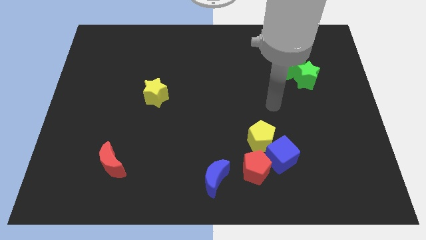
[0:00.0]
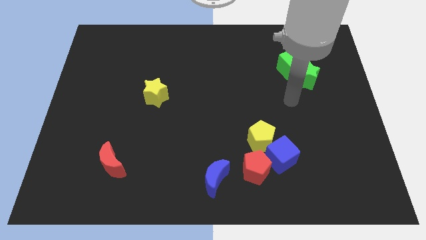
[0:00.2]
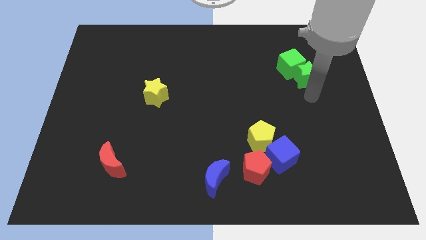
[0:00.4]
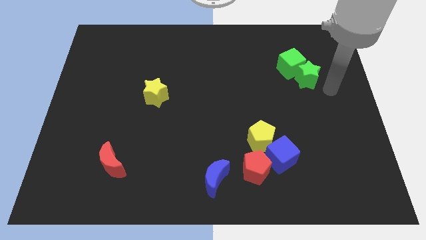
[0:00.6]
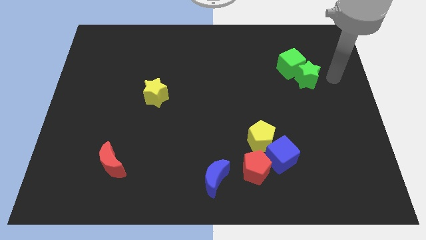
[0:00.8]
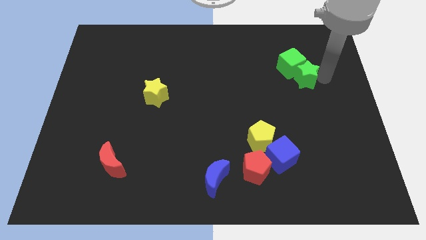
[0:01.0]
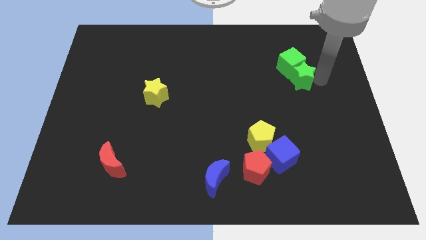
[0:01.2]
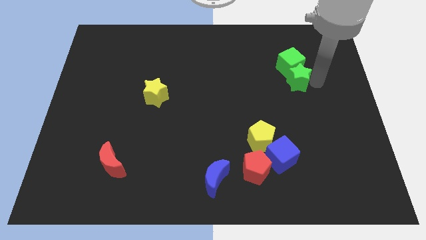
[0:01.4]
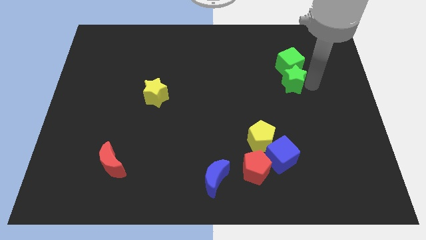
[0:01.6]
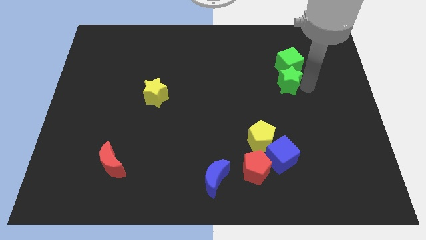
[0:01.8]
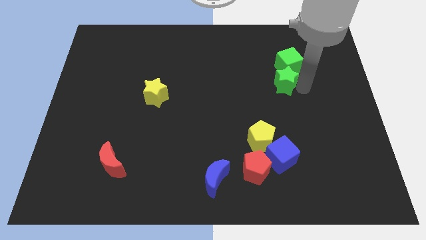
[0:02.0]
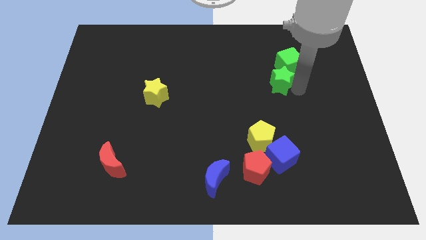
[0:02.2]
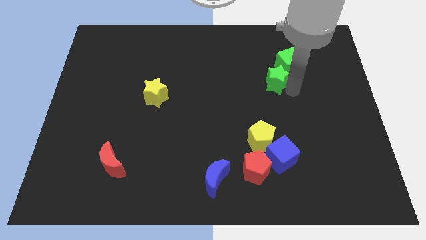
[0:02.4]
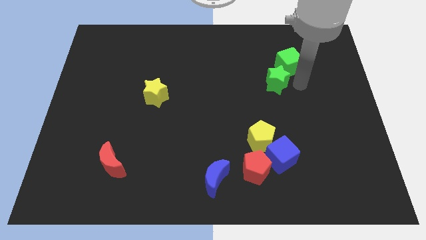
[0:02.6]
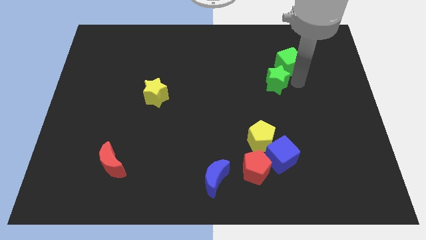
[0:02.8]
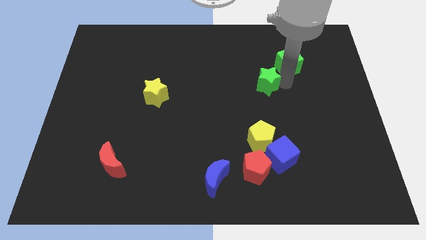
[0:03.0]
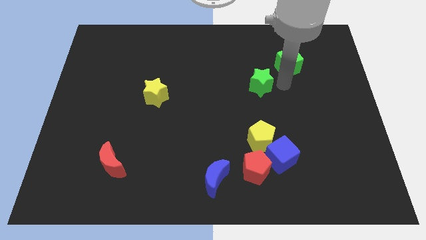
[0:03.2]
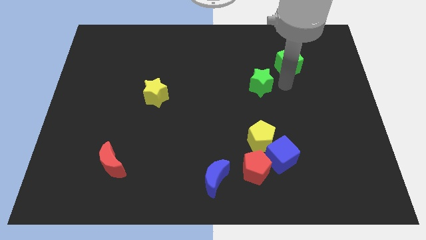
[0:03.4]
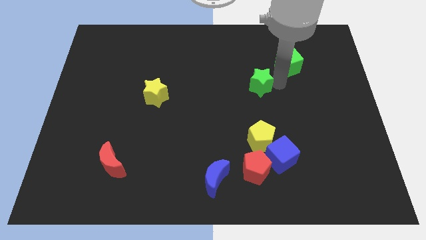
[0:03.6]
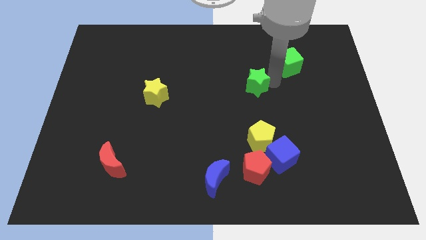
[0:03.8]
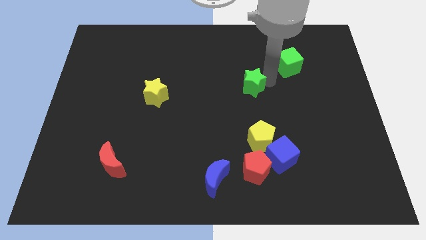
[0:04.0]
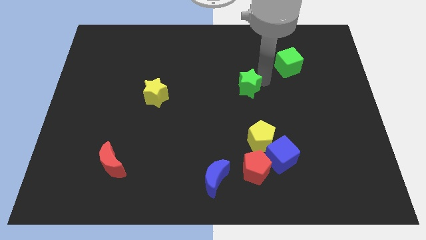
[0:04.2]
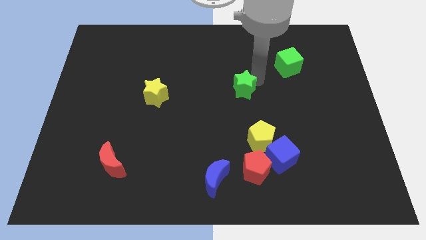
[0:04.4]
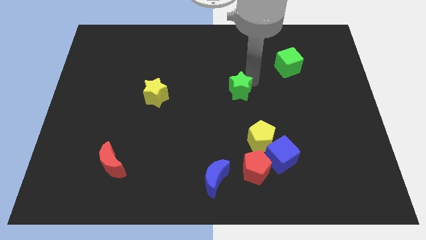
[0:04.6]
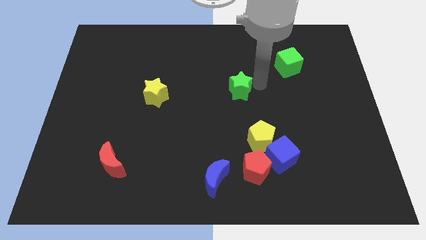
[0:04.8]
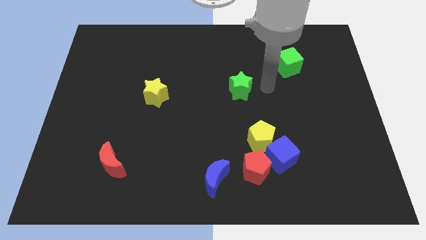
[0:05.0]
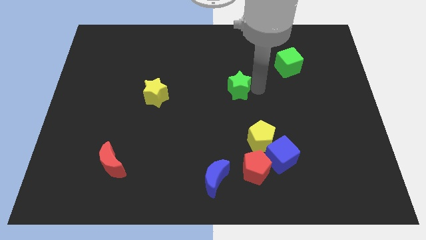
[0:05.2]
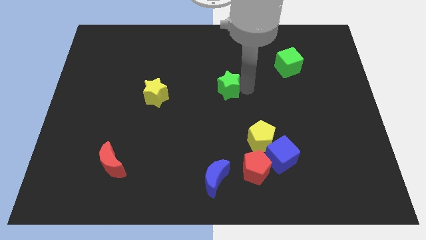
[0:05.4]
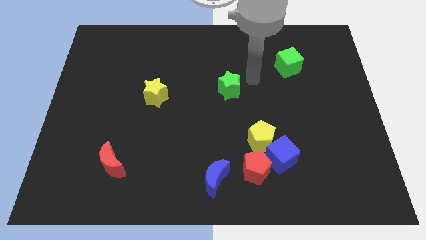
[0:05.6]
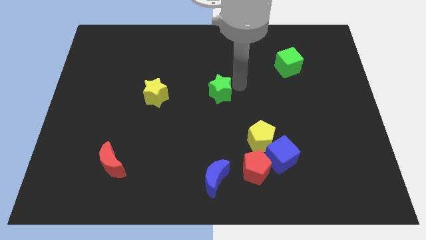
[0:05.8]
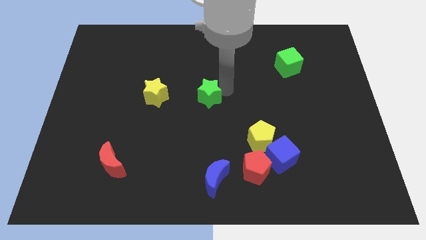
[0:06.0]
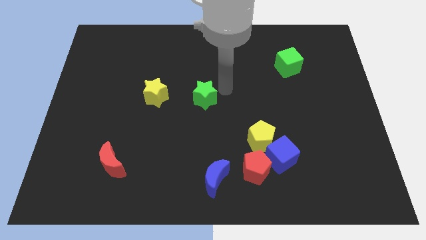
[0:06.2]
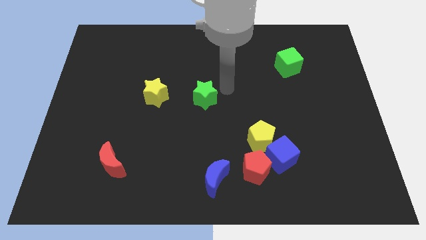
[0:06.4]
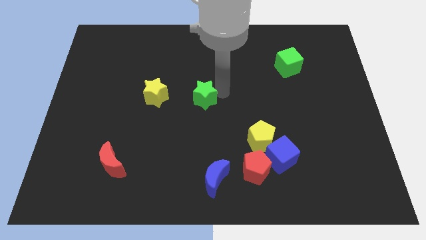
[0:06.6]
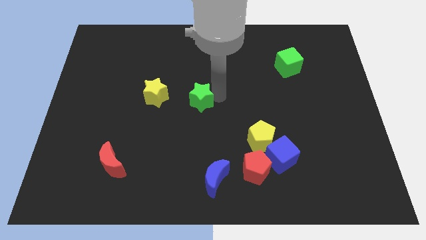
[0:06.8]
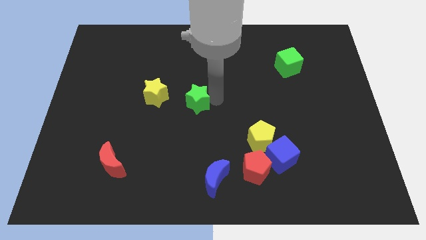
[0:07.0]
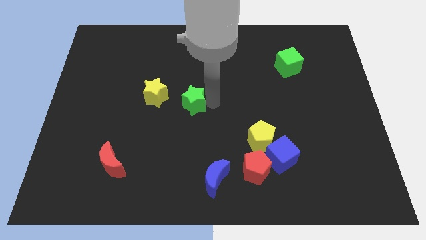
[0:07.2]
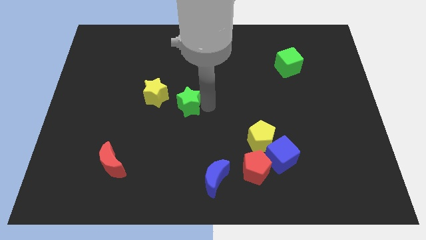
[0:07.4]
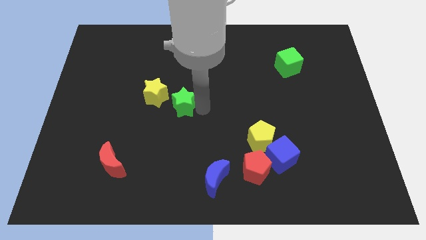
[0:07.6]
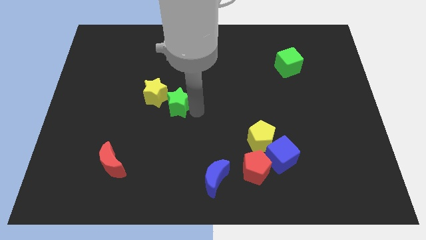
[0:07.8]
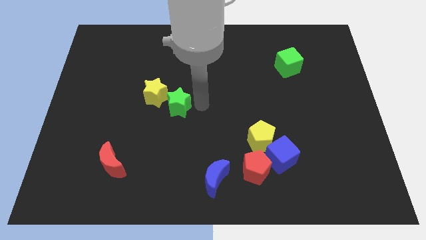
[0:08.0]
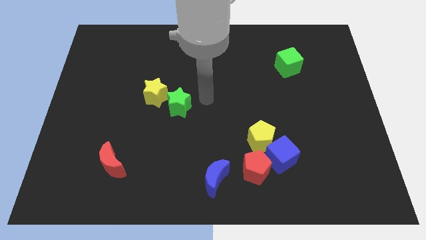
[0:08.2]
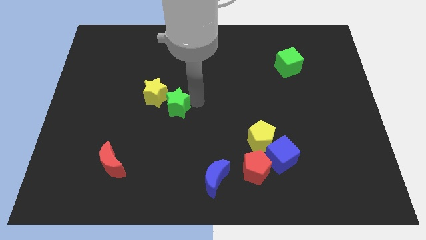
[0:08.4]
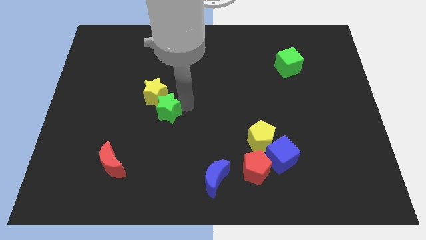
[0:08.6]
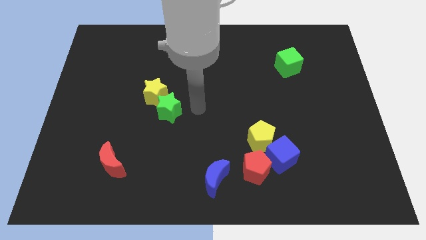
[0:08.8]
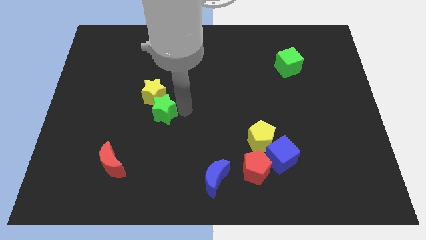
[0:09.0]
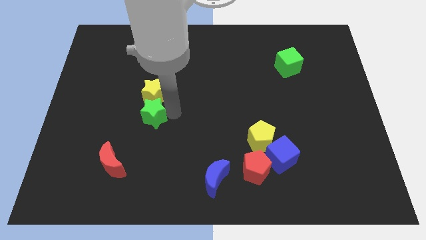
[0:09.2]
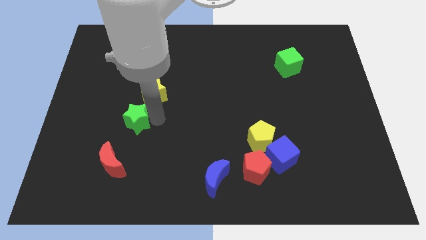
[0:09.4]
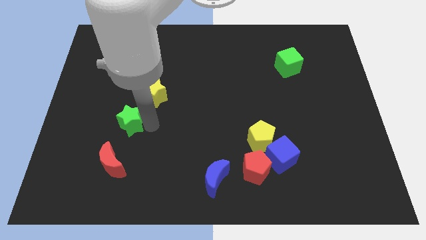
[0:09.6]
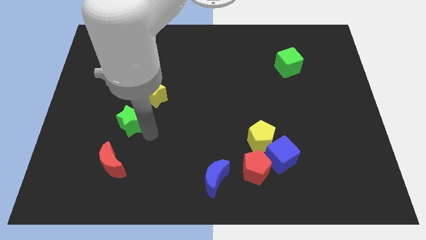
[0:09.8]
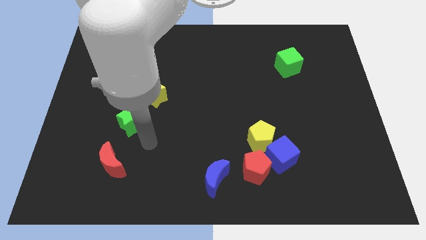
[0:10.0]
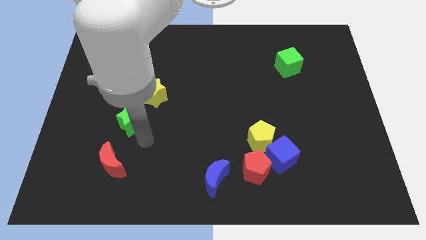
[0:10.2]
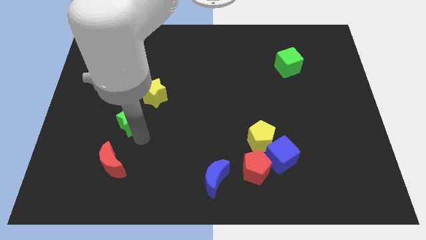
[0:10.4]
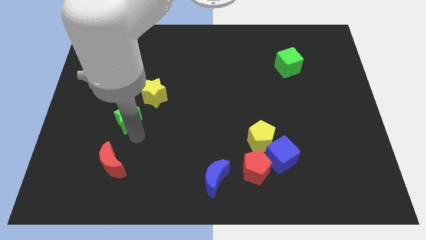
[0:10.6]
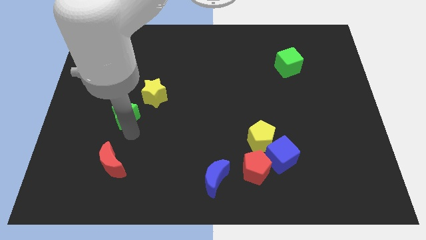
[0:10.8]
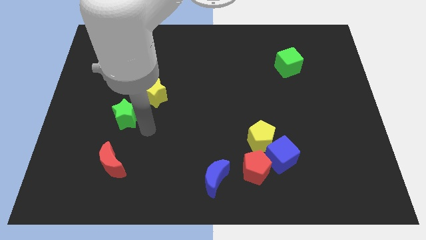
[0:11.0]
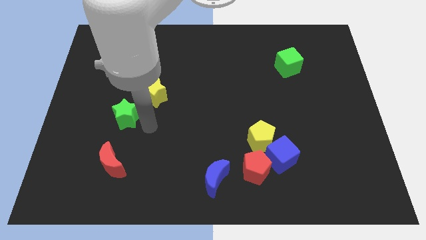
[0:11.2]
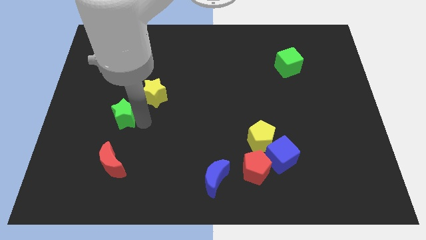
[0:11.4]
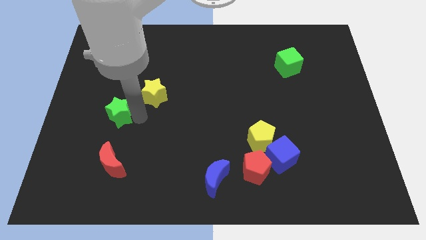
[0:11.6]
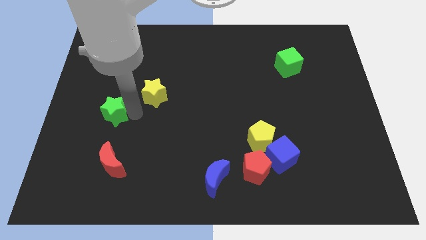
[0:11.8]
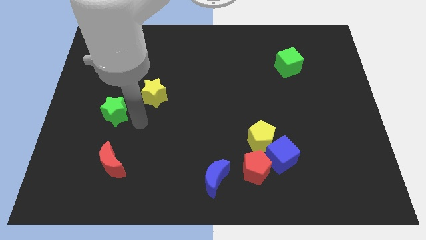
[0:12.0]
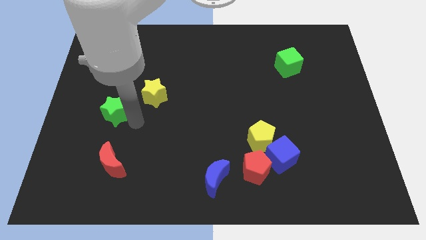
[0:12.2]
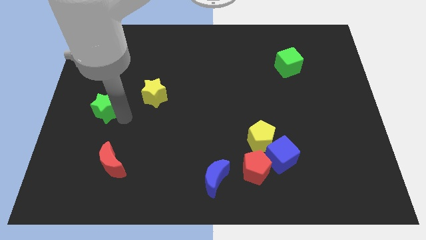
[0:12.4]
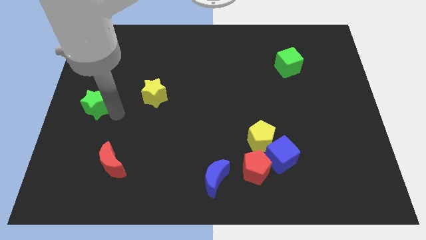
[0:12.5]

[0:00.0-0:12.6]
move the green star to the left side of the board
